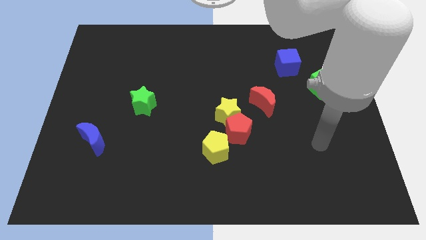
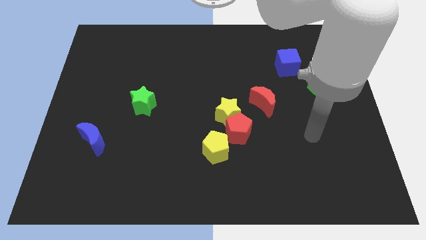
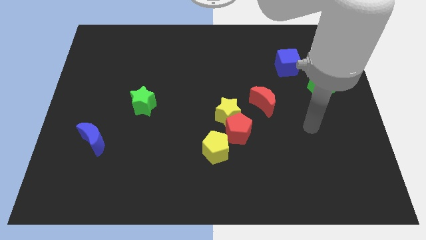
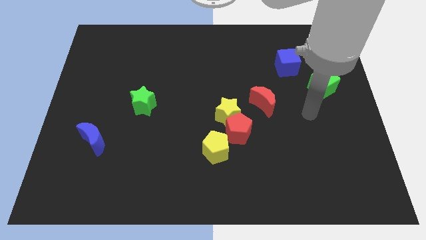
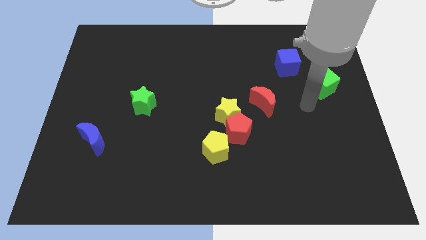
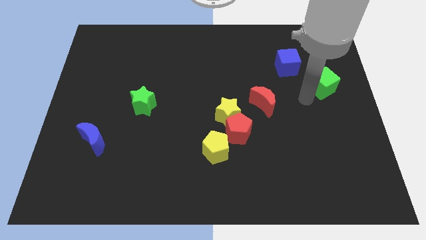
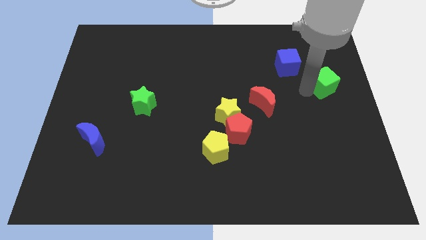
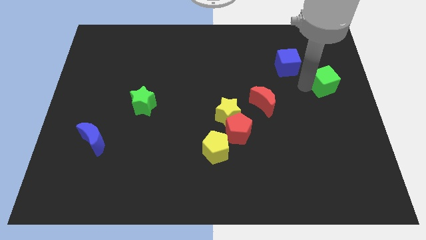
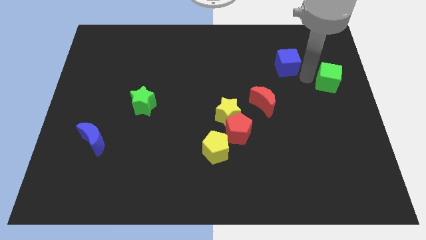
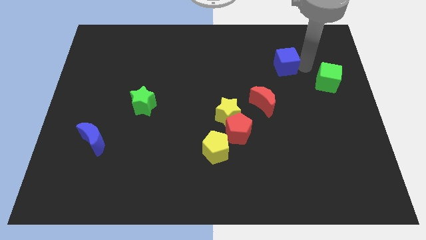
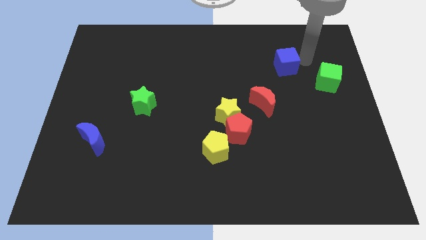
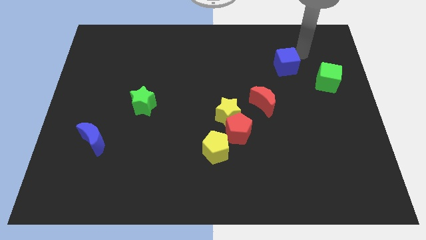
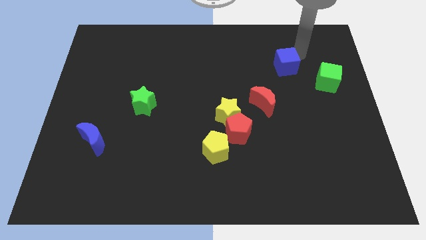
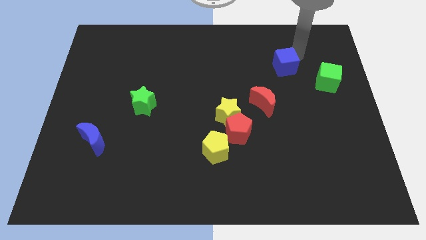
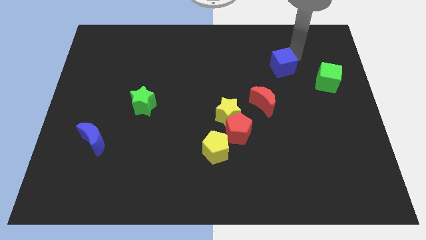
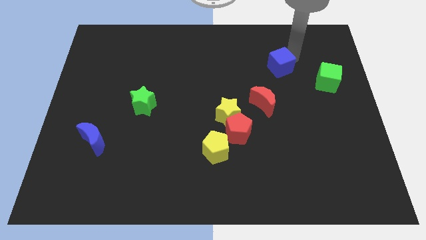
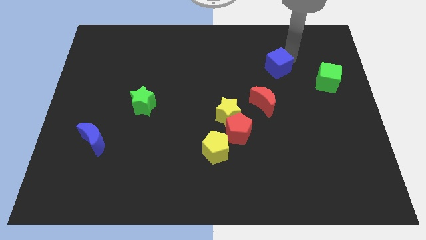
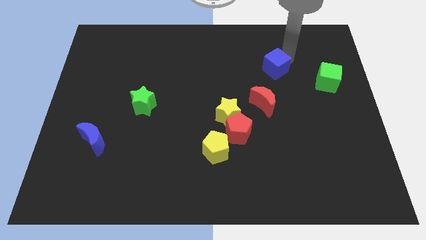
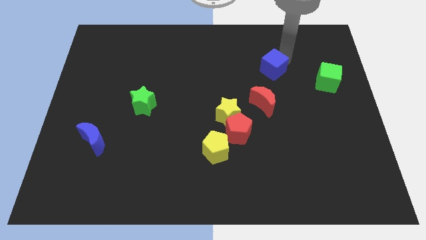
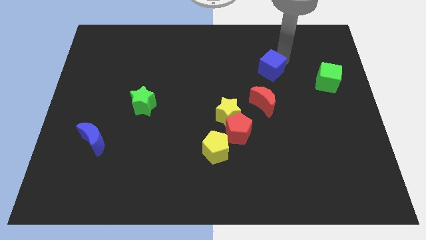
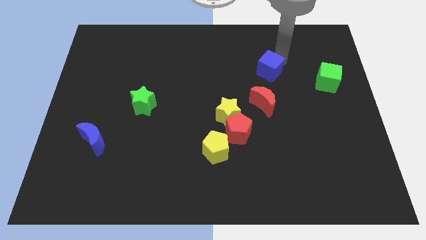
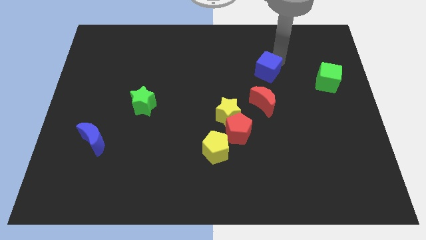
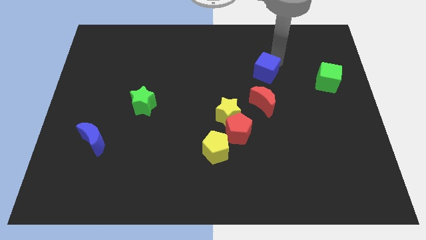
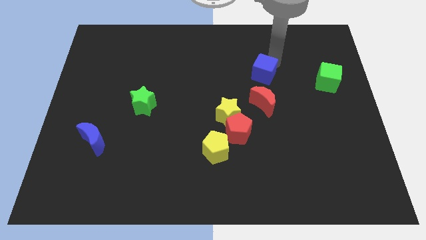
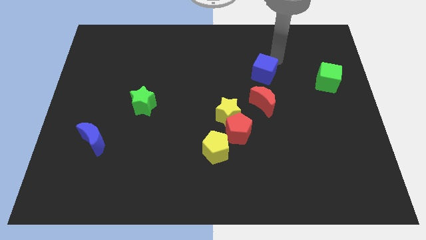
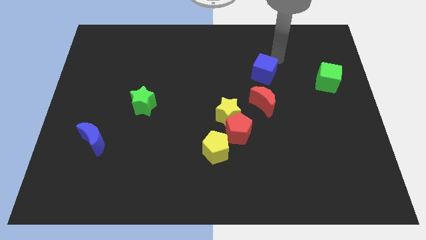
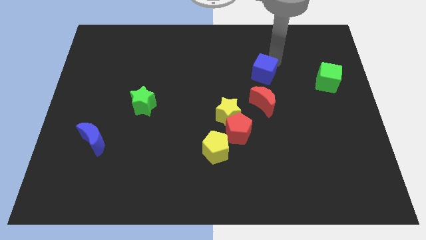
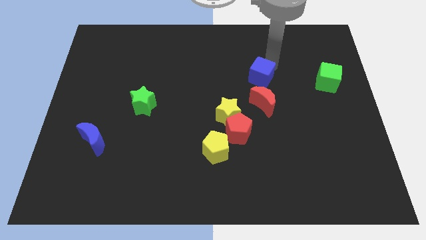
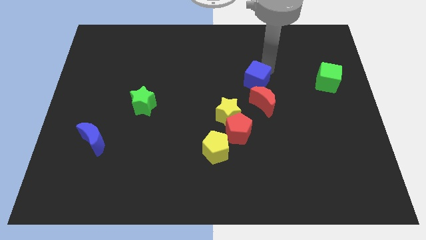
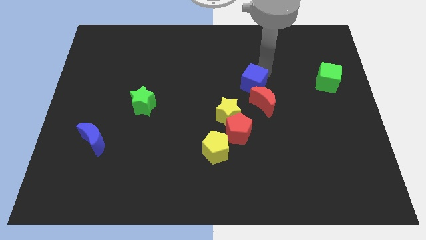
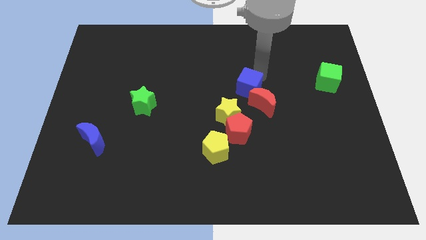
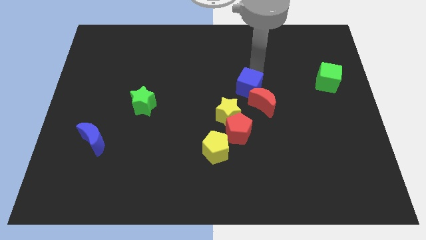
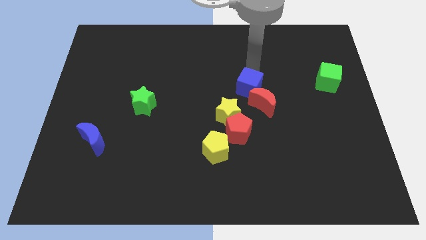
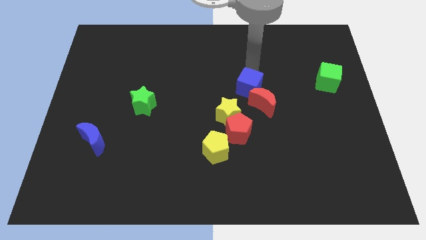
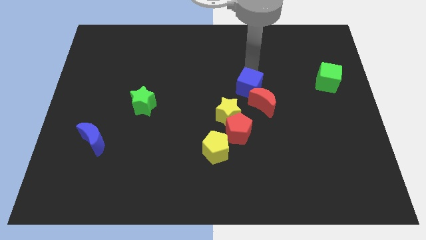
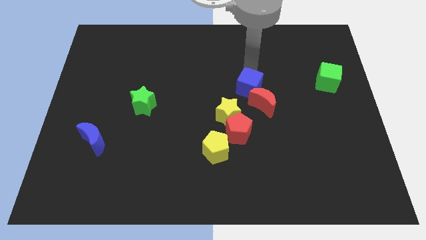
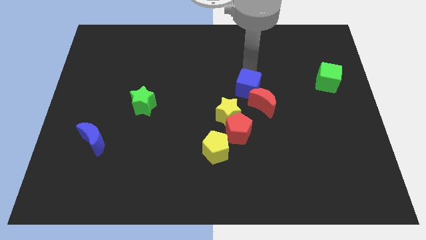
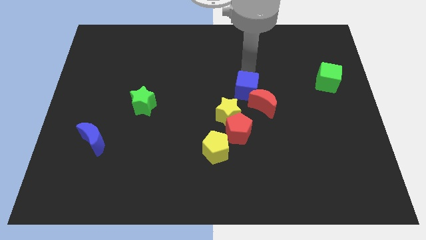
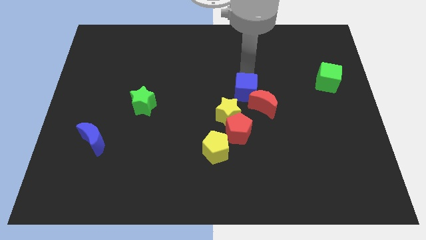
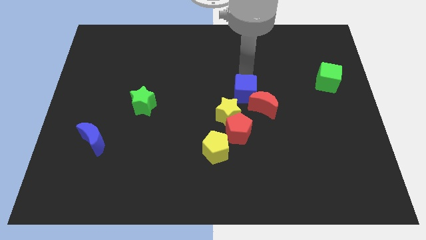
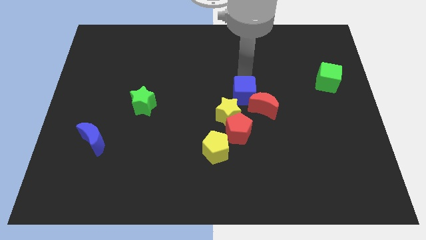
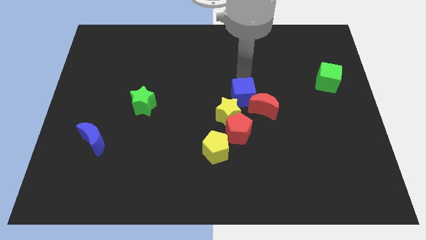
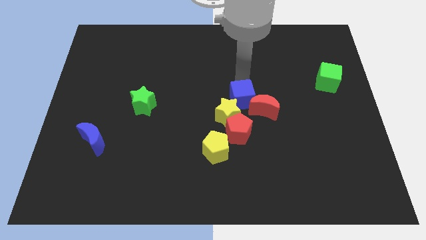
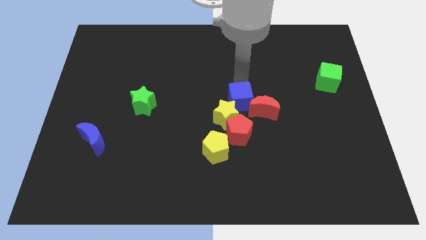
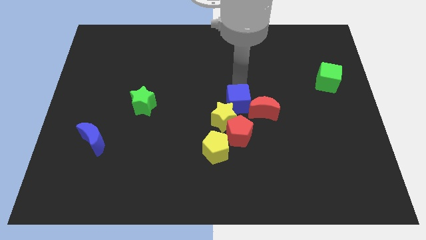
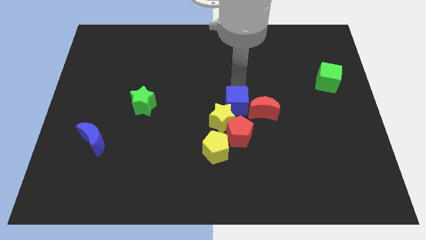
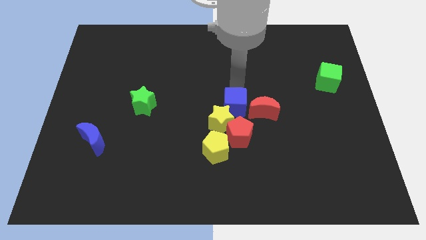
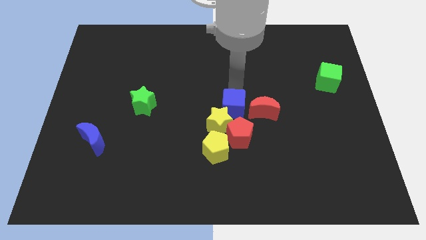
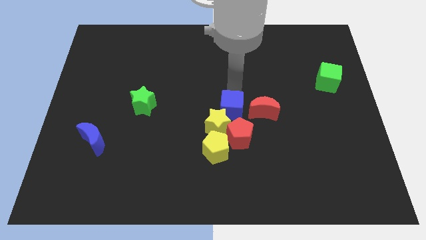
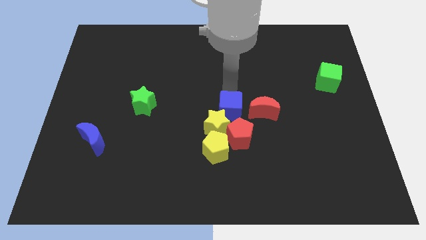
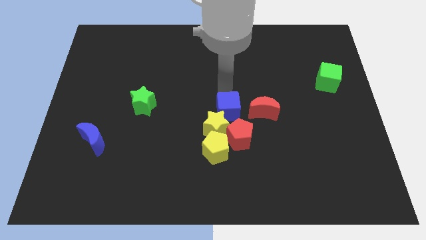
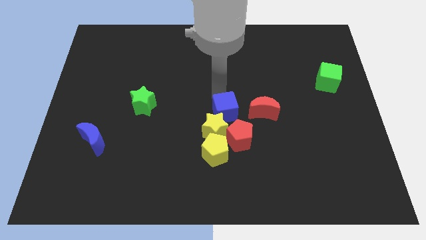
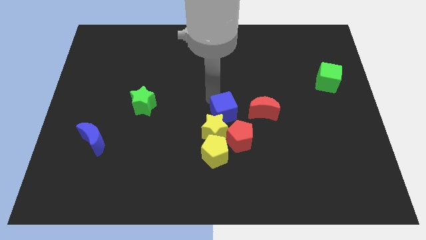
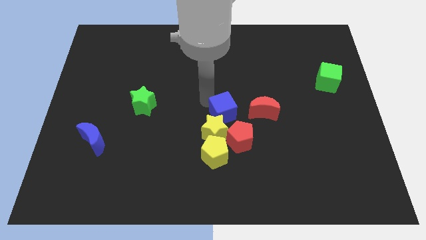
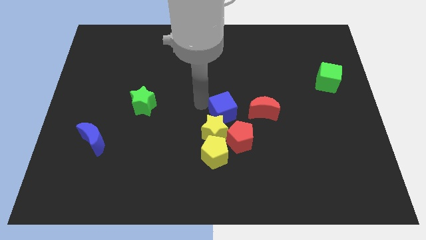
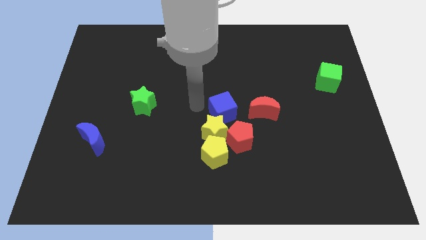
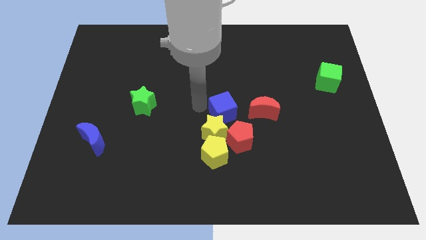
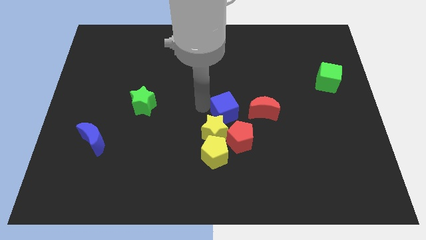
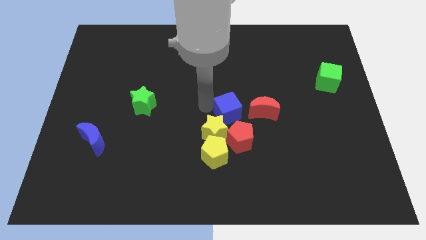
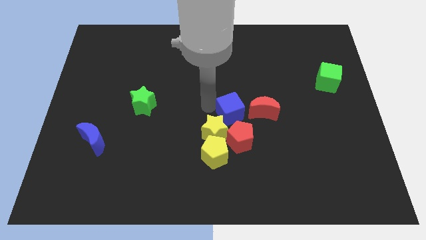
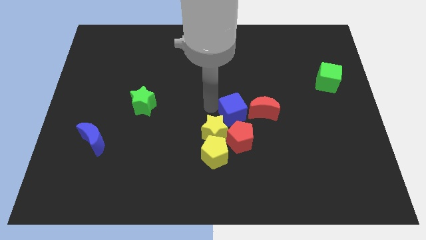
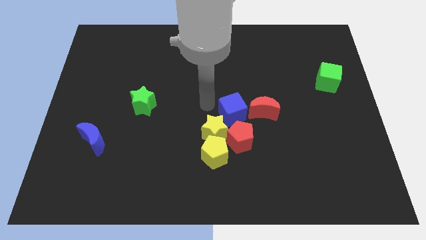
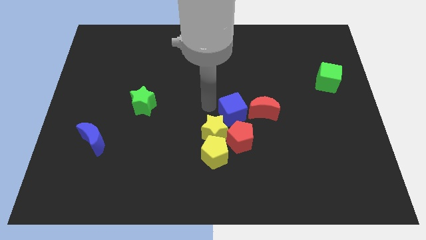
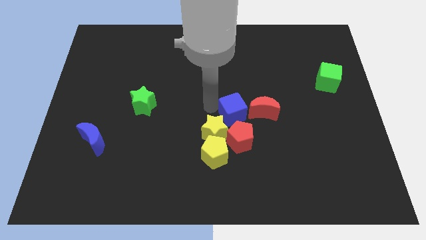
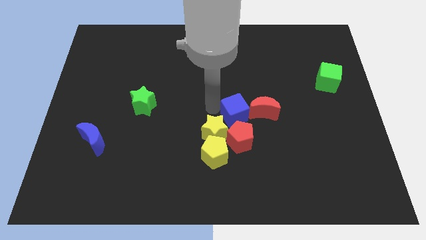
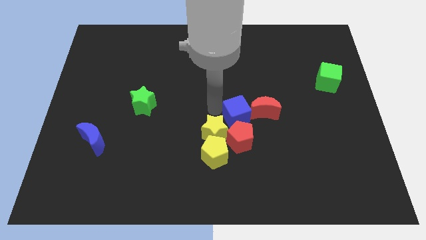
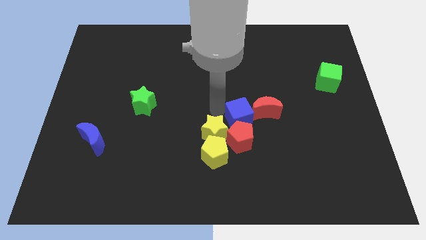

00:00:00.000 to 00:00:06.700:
push the blue cube towards the red pentagon

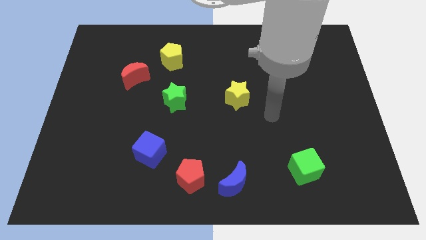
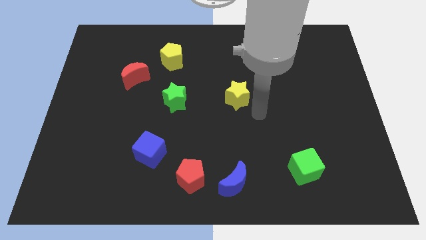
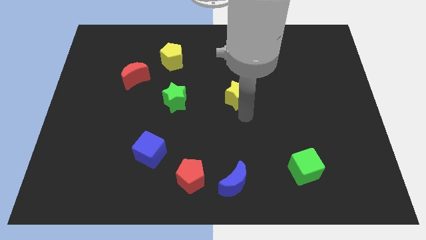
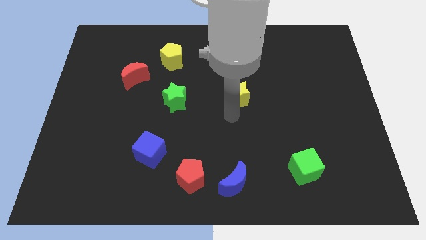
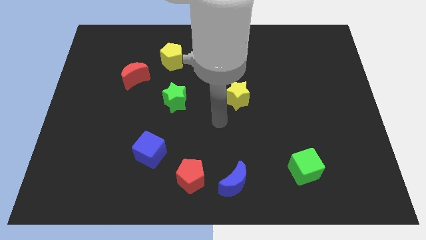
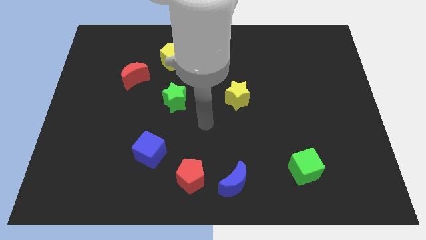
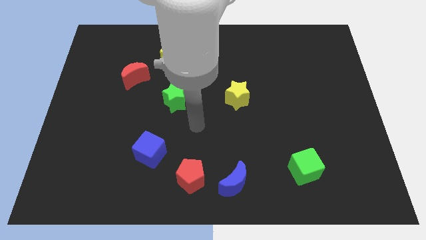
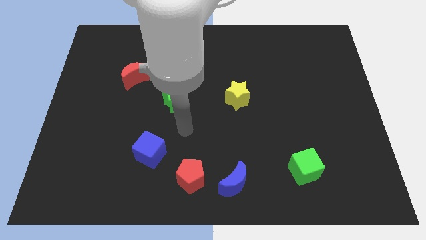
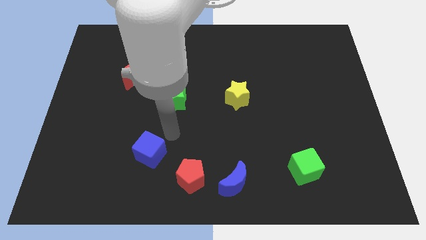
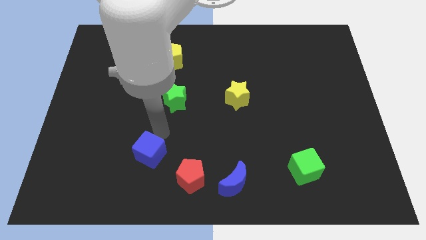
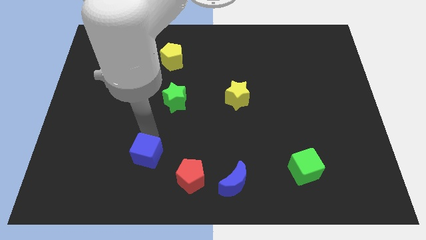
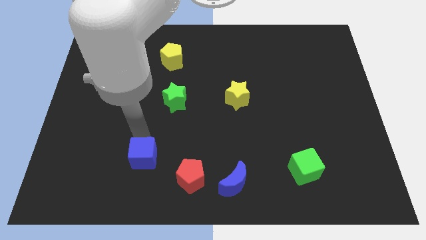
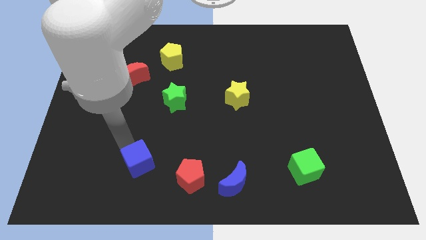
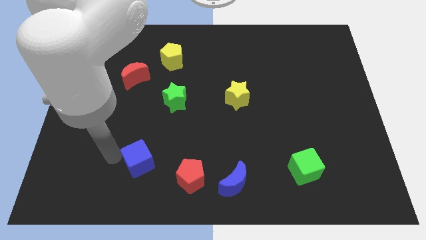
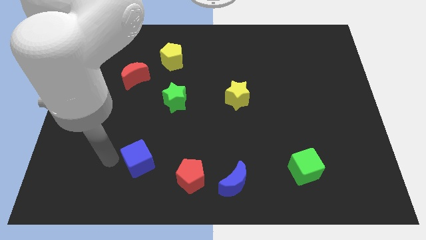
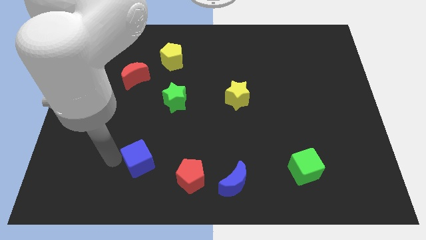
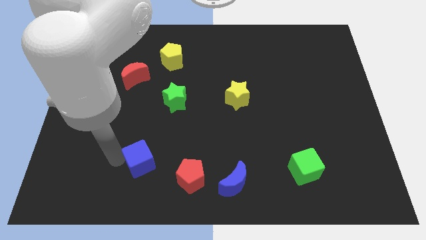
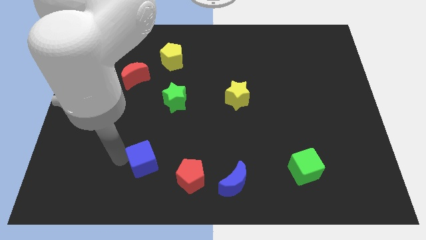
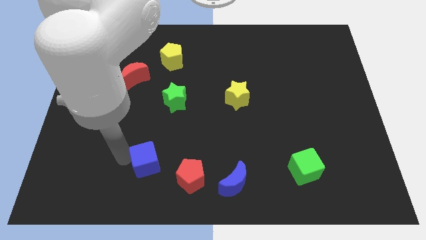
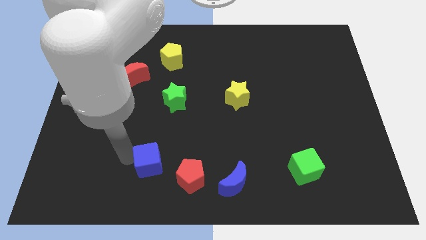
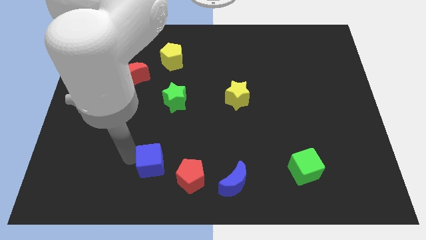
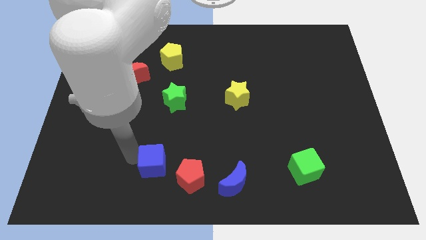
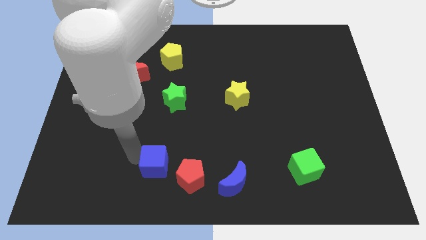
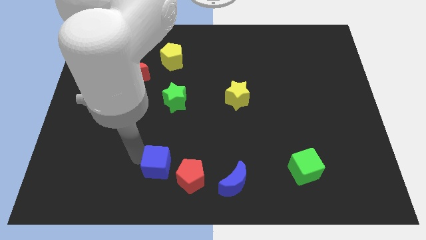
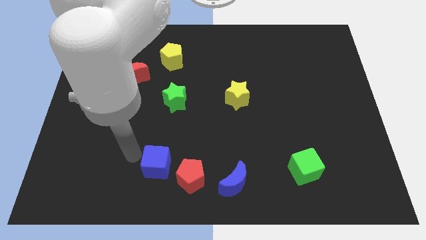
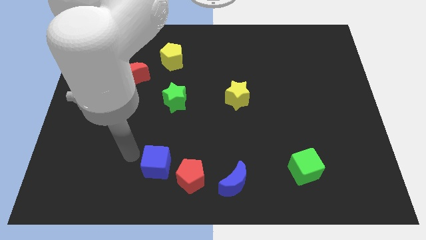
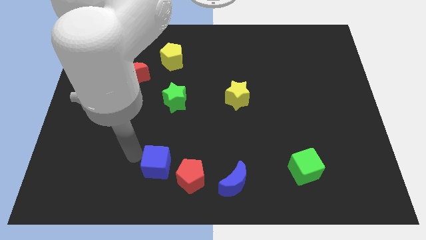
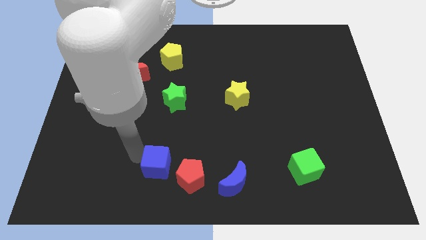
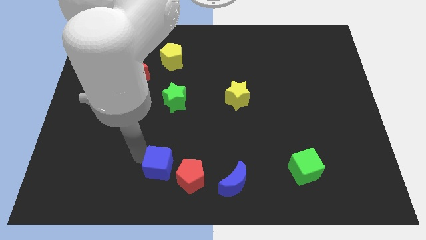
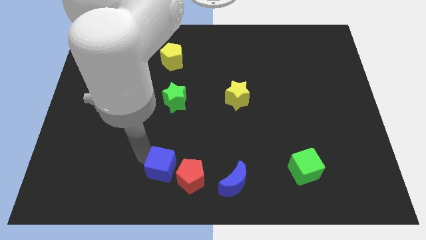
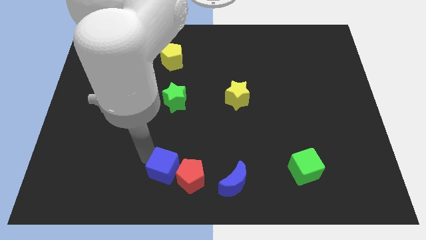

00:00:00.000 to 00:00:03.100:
slide the blue cube close to the red pentagon
